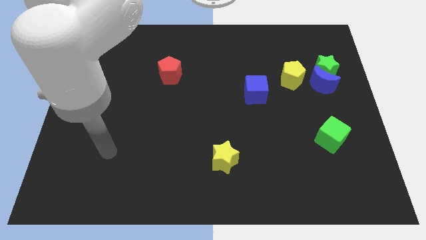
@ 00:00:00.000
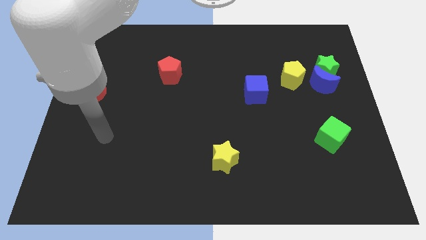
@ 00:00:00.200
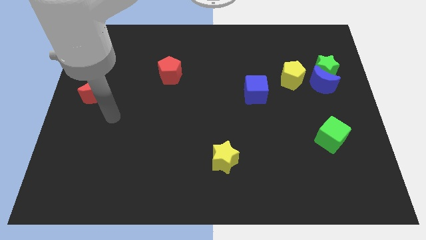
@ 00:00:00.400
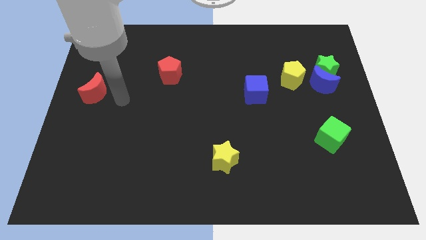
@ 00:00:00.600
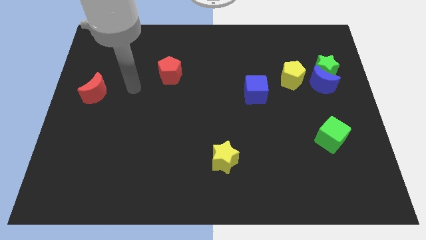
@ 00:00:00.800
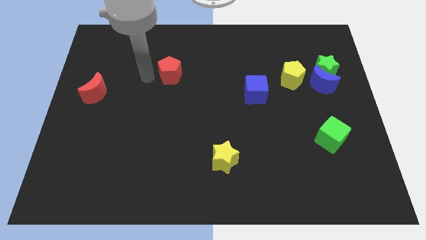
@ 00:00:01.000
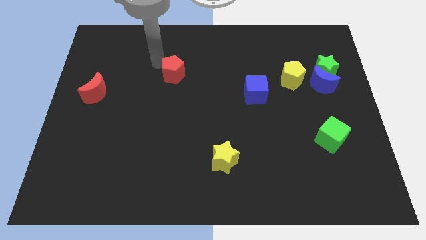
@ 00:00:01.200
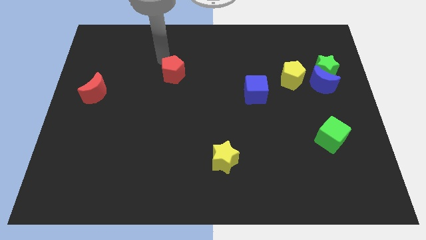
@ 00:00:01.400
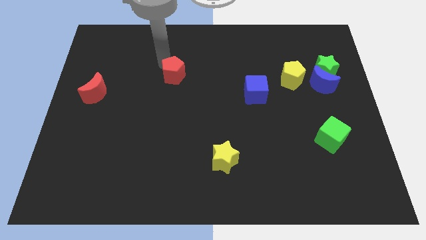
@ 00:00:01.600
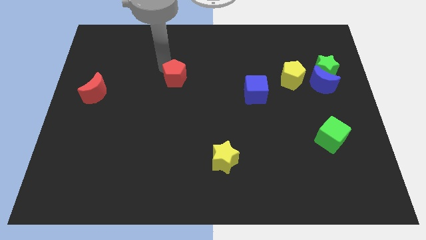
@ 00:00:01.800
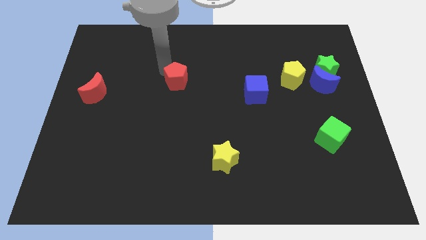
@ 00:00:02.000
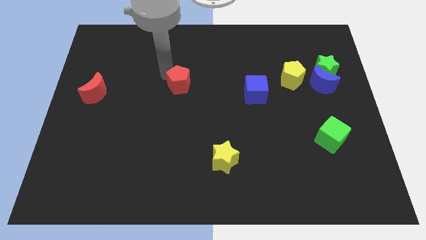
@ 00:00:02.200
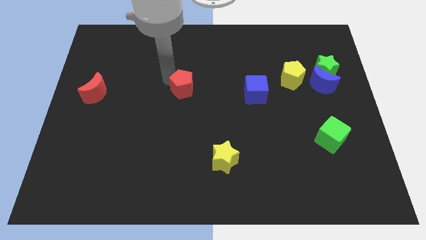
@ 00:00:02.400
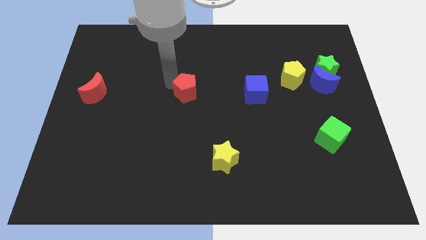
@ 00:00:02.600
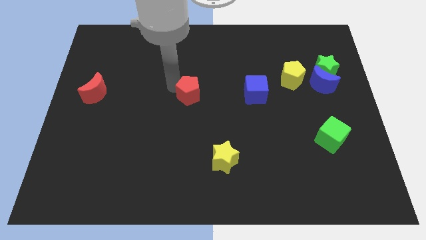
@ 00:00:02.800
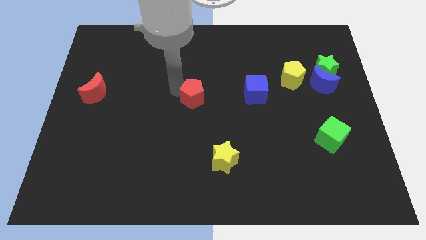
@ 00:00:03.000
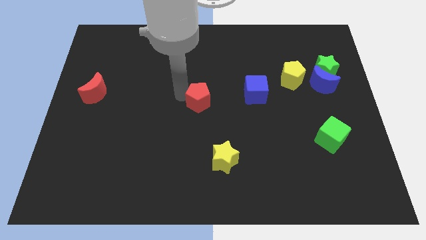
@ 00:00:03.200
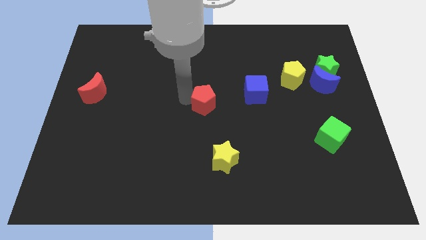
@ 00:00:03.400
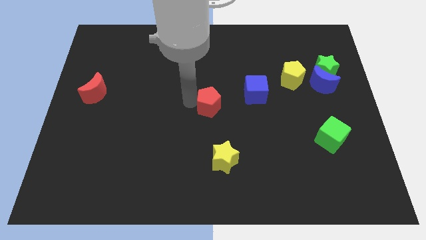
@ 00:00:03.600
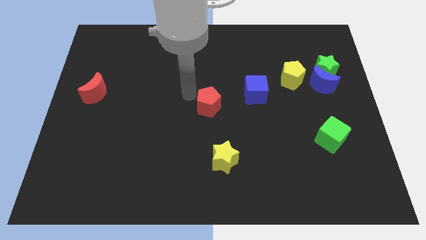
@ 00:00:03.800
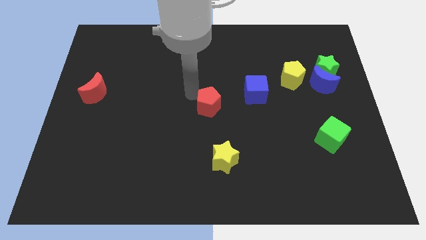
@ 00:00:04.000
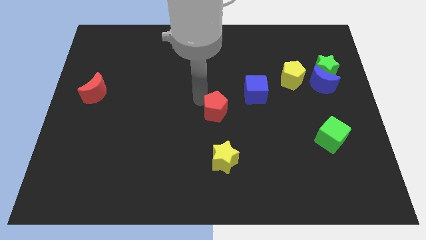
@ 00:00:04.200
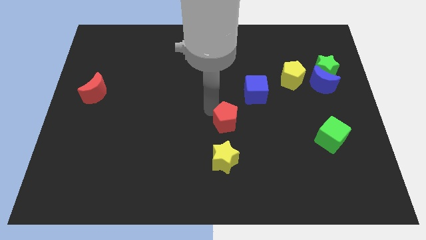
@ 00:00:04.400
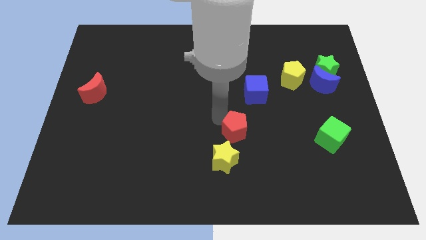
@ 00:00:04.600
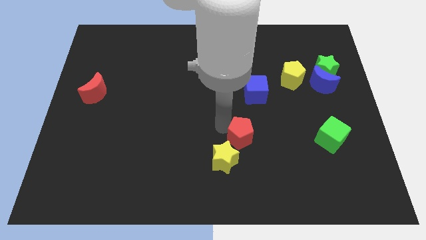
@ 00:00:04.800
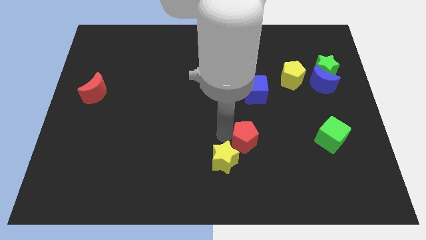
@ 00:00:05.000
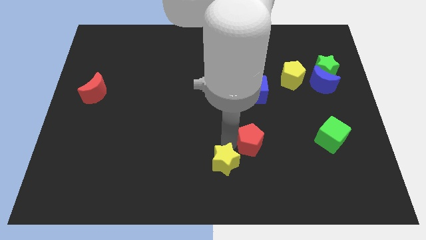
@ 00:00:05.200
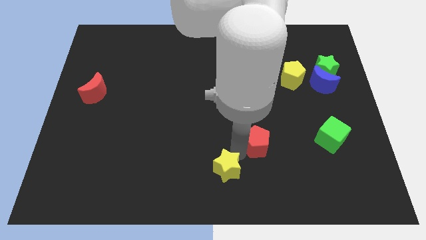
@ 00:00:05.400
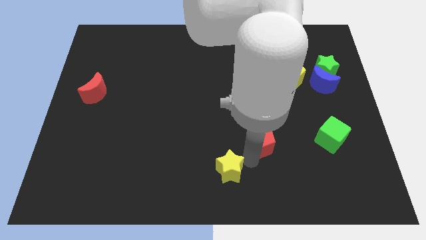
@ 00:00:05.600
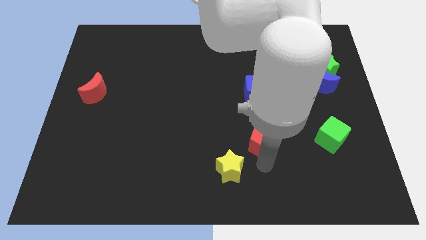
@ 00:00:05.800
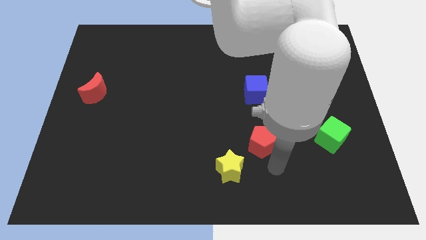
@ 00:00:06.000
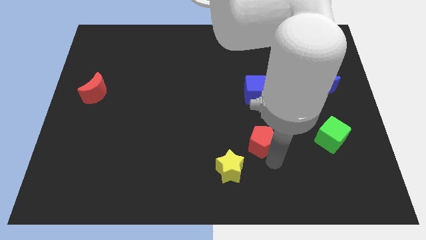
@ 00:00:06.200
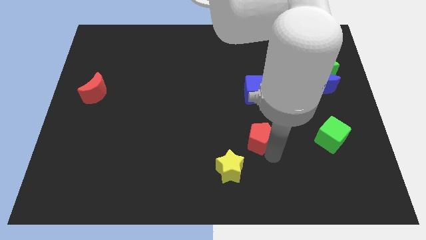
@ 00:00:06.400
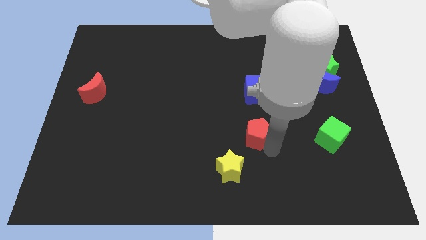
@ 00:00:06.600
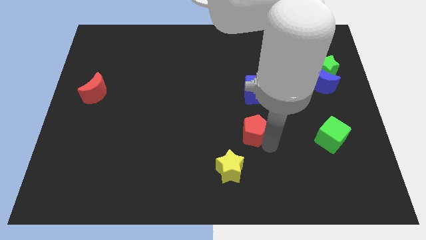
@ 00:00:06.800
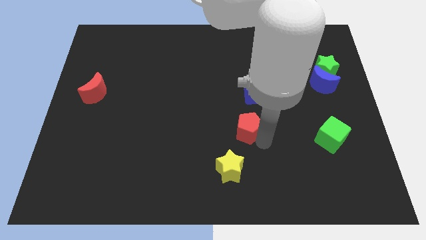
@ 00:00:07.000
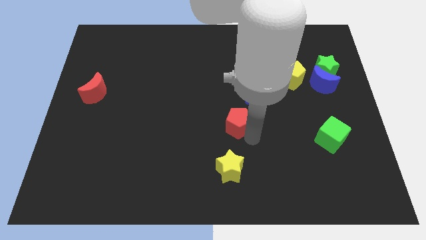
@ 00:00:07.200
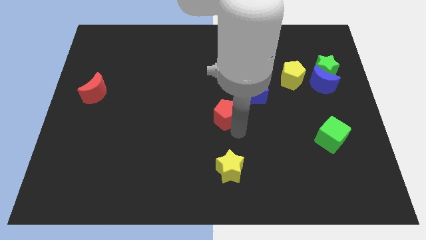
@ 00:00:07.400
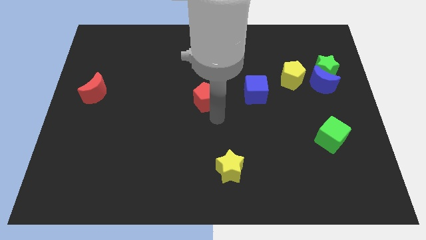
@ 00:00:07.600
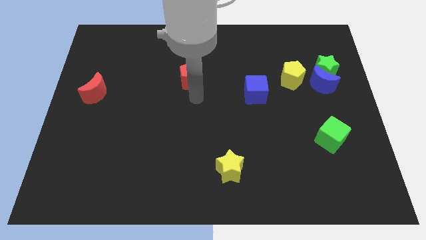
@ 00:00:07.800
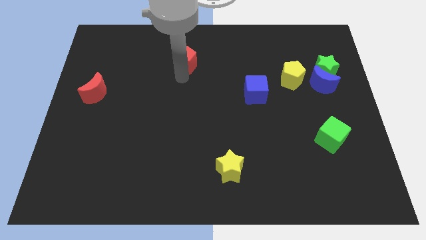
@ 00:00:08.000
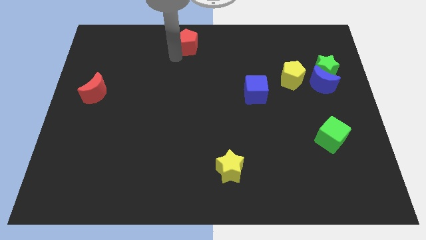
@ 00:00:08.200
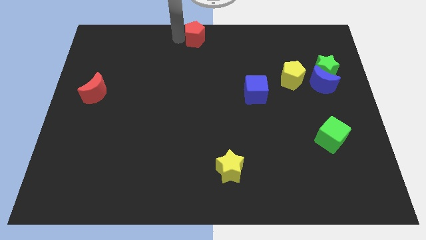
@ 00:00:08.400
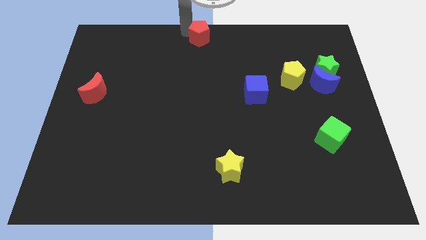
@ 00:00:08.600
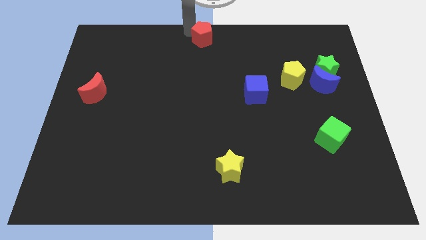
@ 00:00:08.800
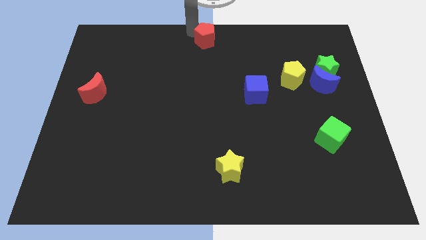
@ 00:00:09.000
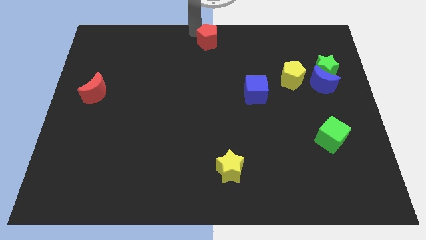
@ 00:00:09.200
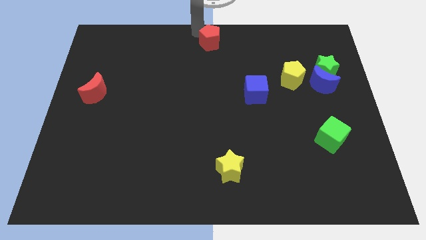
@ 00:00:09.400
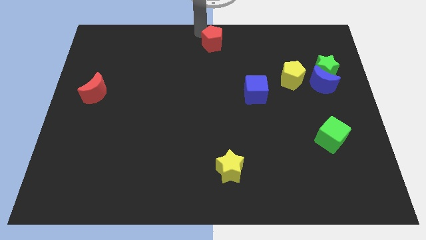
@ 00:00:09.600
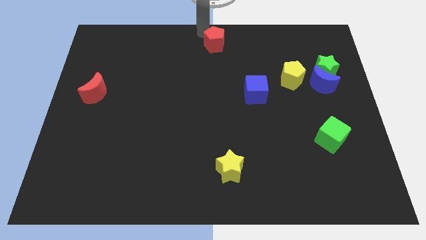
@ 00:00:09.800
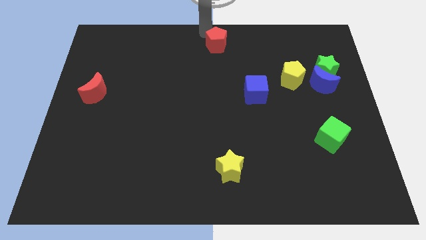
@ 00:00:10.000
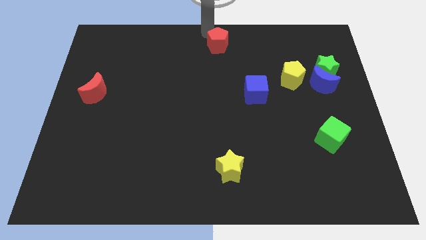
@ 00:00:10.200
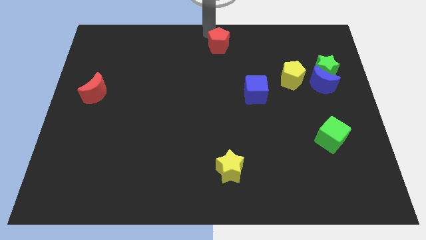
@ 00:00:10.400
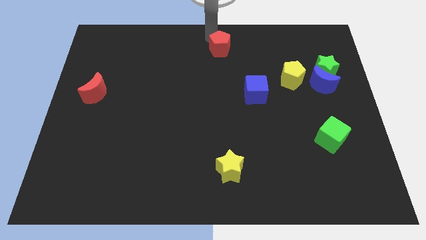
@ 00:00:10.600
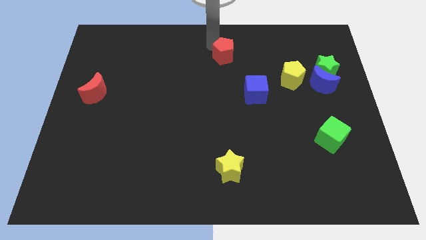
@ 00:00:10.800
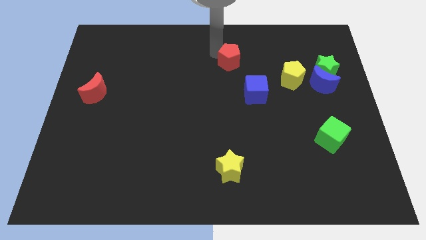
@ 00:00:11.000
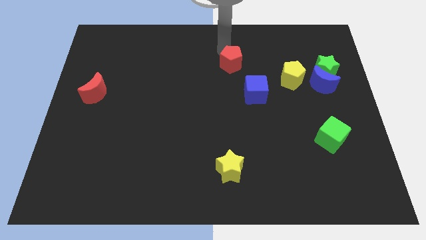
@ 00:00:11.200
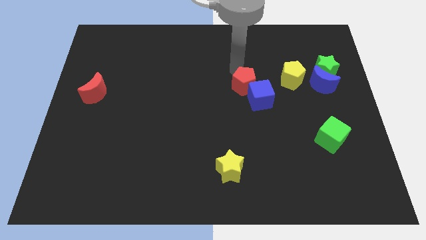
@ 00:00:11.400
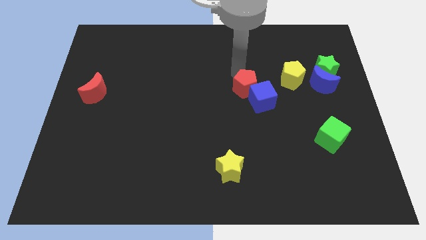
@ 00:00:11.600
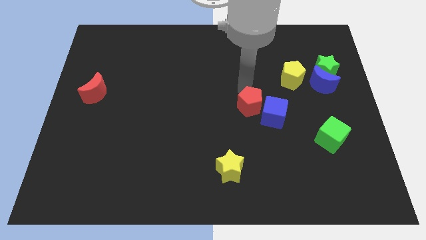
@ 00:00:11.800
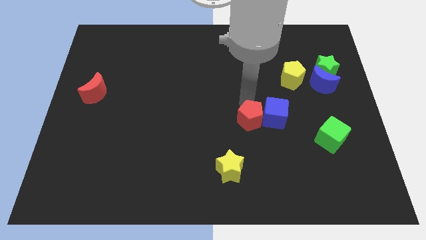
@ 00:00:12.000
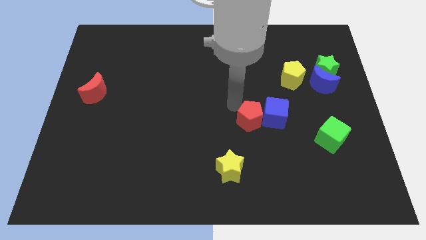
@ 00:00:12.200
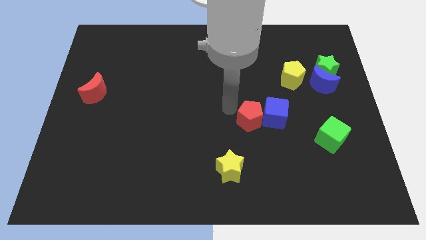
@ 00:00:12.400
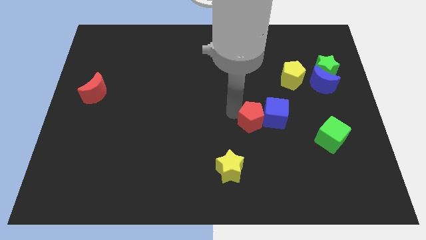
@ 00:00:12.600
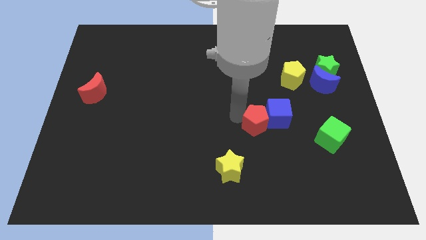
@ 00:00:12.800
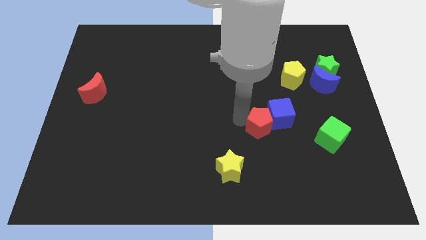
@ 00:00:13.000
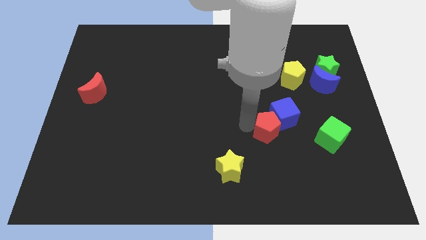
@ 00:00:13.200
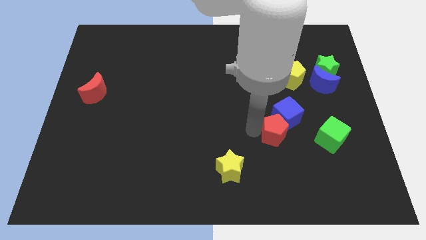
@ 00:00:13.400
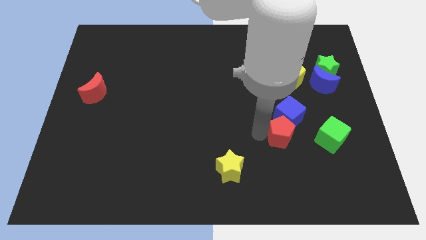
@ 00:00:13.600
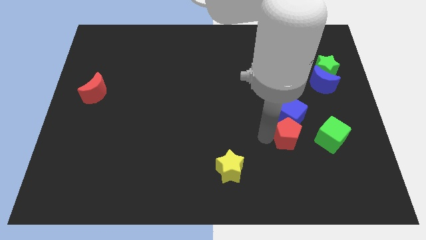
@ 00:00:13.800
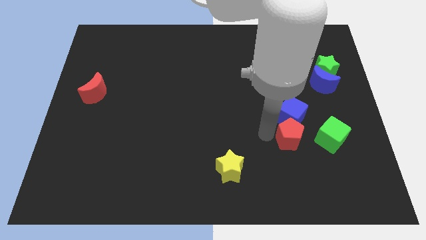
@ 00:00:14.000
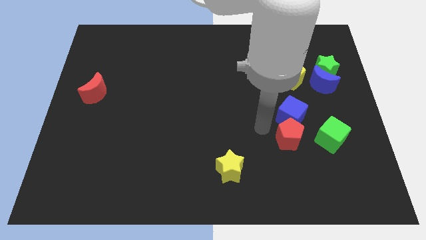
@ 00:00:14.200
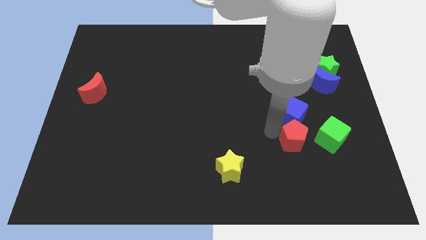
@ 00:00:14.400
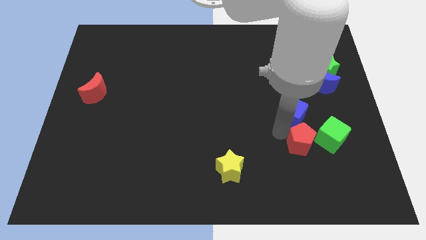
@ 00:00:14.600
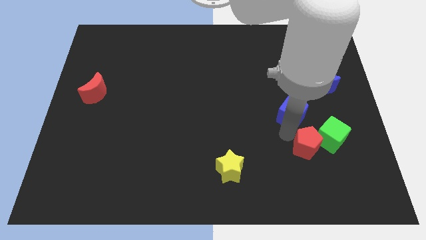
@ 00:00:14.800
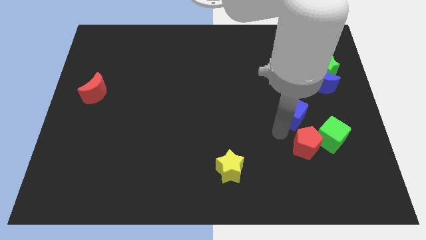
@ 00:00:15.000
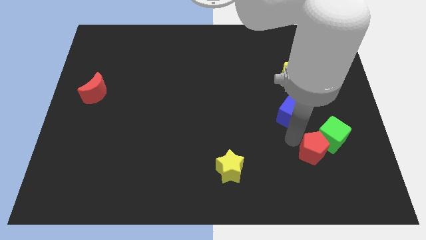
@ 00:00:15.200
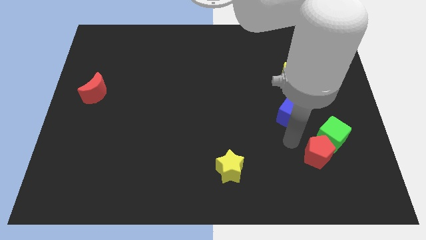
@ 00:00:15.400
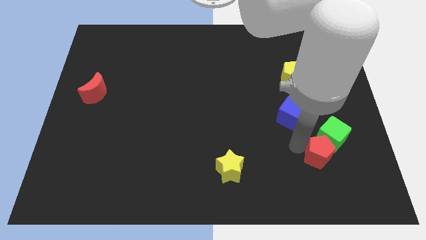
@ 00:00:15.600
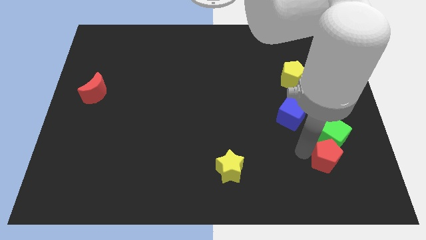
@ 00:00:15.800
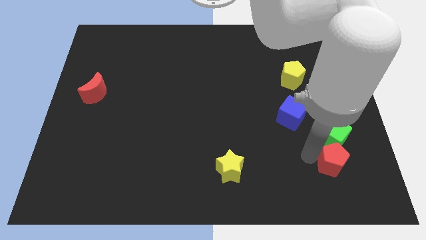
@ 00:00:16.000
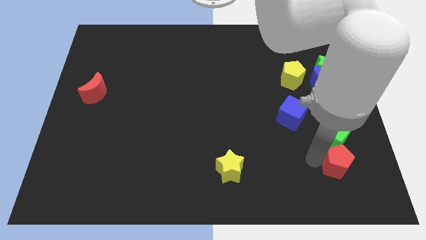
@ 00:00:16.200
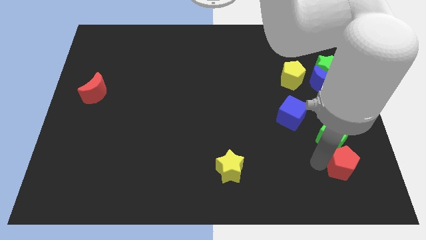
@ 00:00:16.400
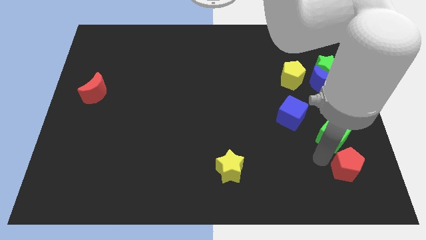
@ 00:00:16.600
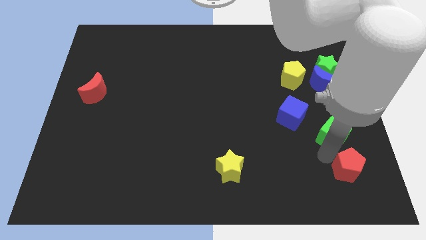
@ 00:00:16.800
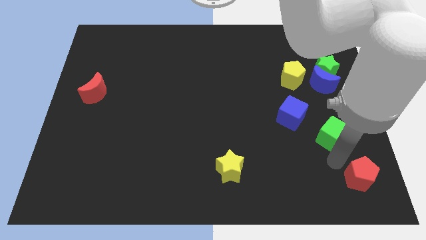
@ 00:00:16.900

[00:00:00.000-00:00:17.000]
slide the red pentagon to the bottom right corner
